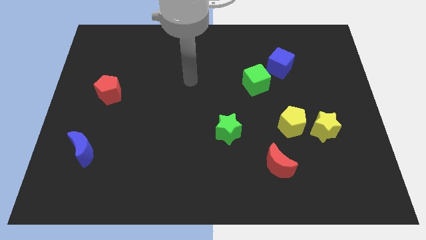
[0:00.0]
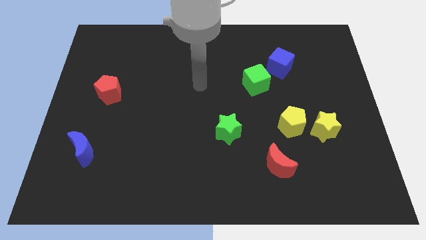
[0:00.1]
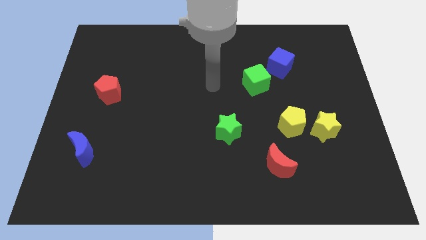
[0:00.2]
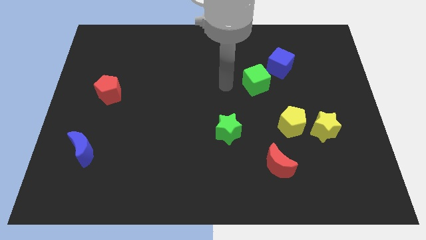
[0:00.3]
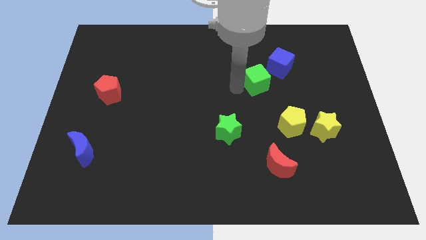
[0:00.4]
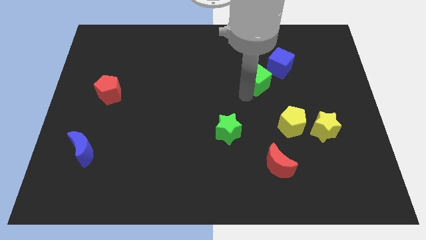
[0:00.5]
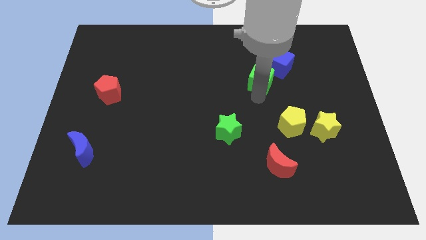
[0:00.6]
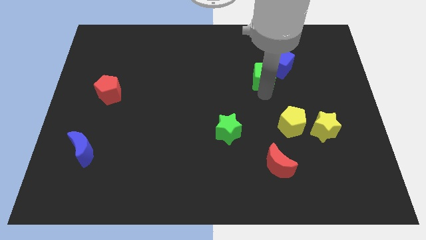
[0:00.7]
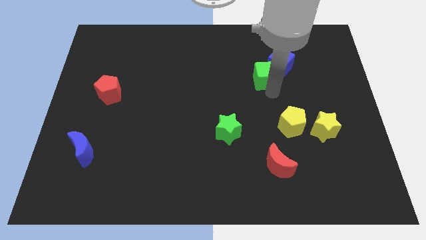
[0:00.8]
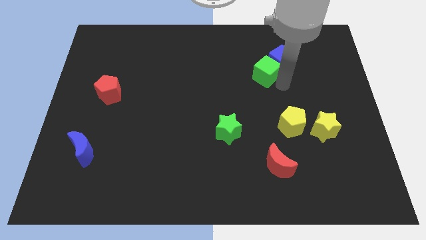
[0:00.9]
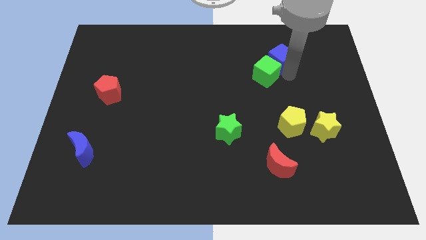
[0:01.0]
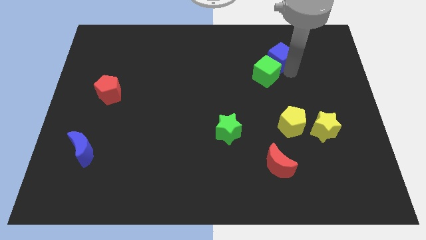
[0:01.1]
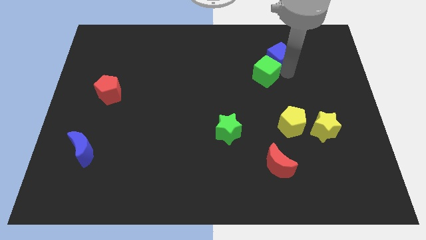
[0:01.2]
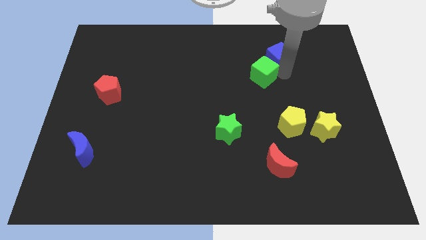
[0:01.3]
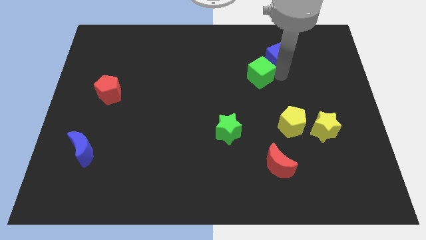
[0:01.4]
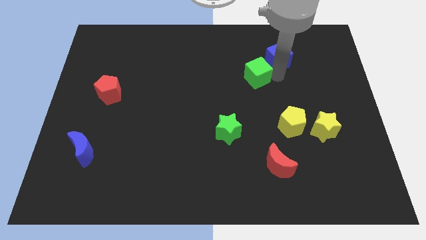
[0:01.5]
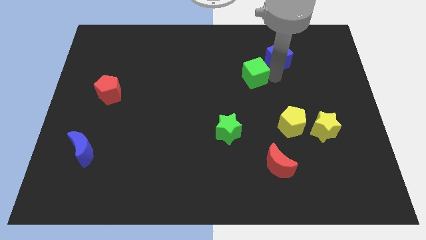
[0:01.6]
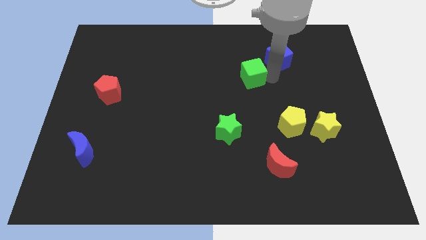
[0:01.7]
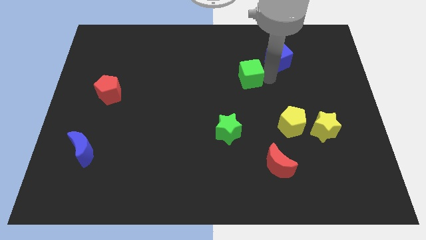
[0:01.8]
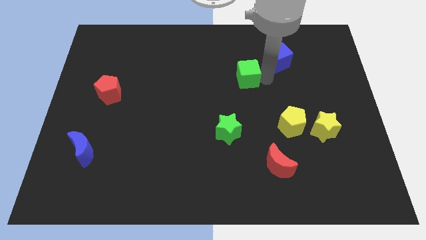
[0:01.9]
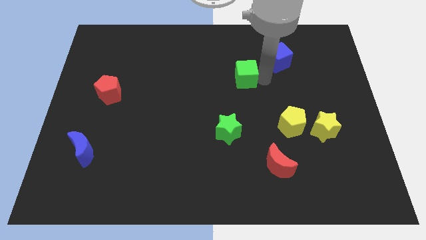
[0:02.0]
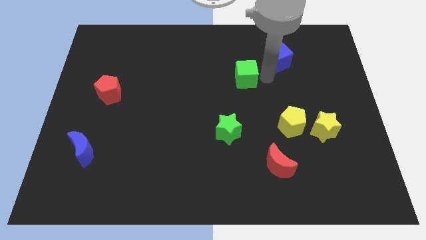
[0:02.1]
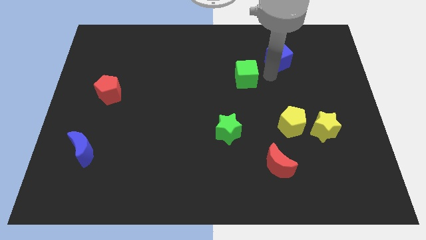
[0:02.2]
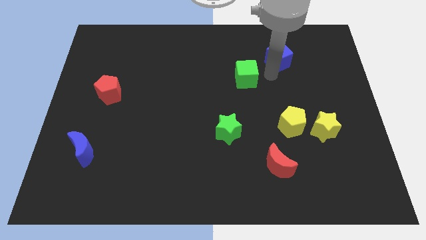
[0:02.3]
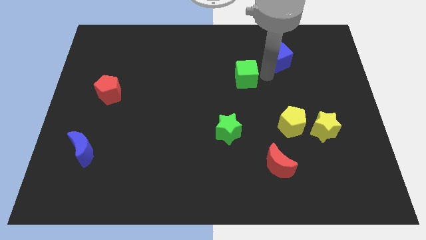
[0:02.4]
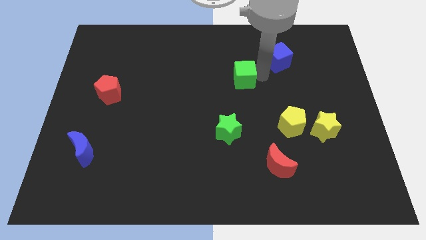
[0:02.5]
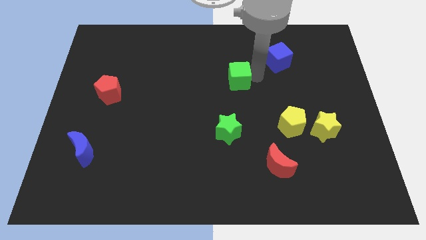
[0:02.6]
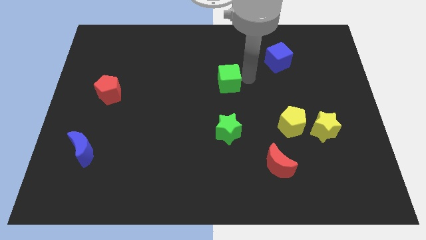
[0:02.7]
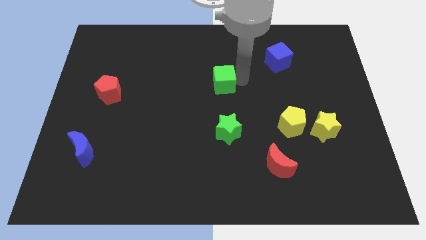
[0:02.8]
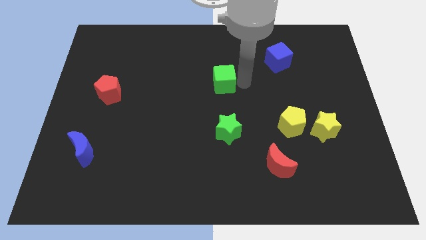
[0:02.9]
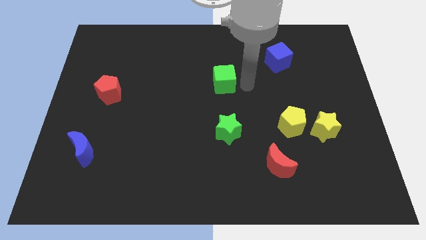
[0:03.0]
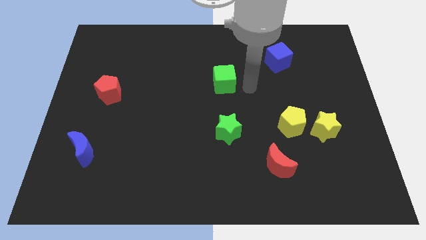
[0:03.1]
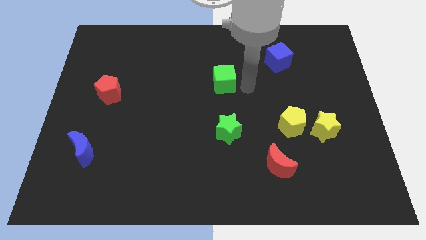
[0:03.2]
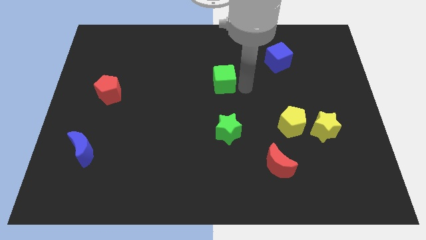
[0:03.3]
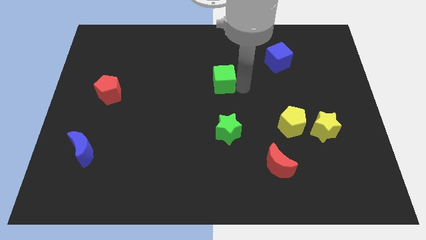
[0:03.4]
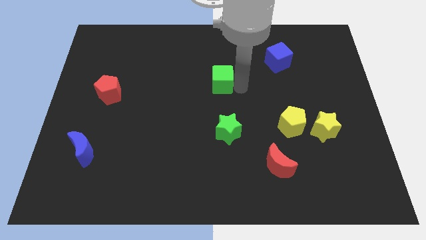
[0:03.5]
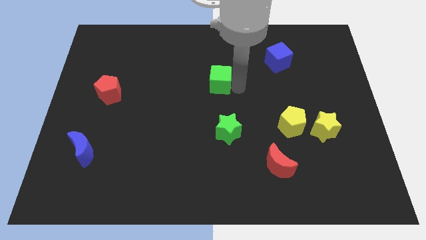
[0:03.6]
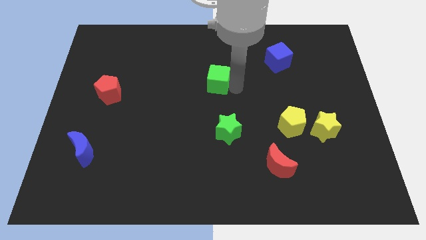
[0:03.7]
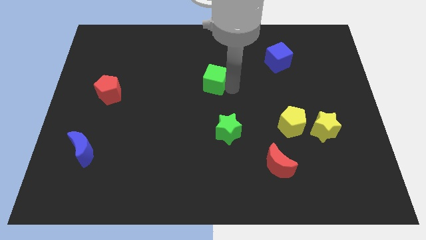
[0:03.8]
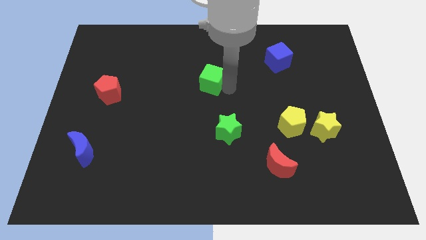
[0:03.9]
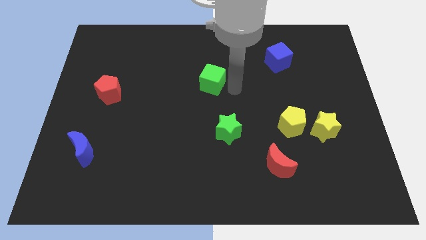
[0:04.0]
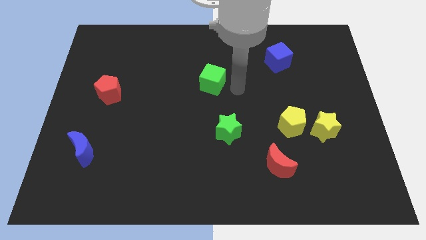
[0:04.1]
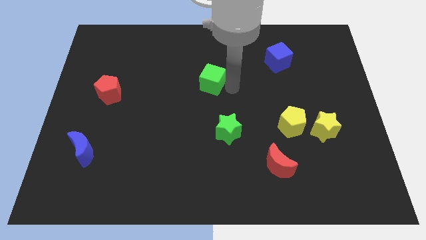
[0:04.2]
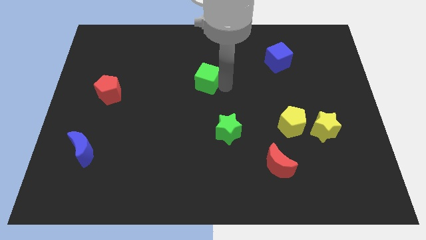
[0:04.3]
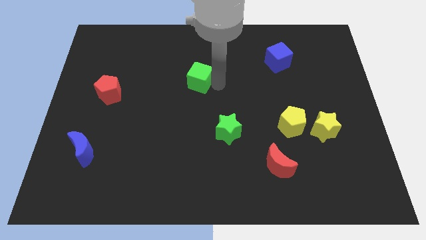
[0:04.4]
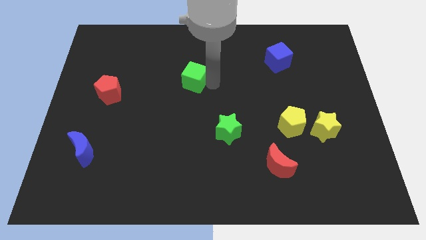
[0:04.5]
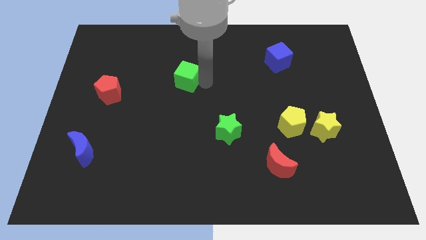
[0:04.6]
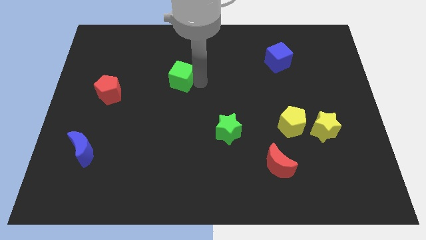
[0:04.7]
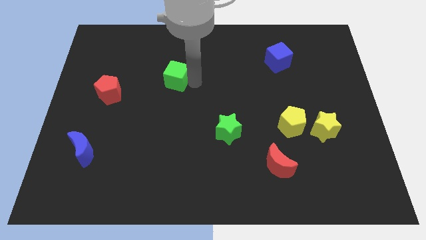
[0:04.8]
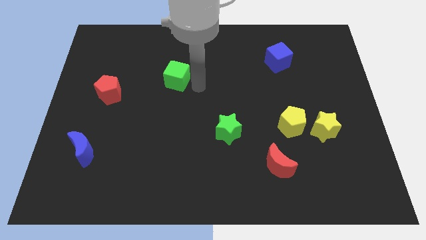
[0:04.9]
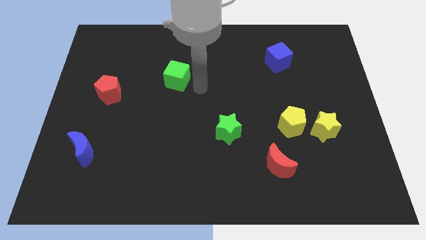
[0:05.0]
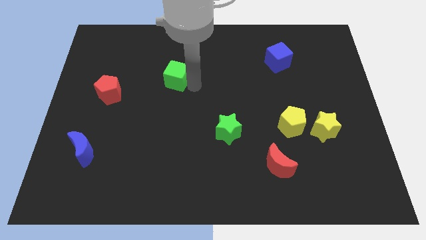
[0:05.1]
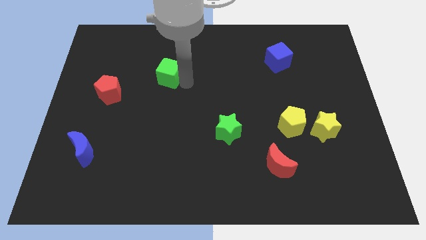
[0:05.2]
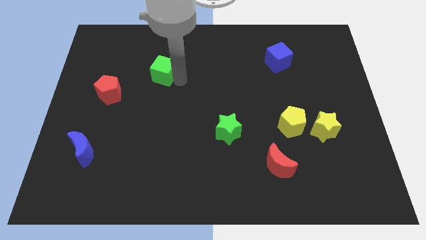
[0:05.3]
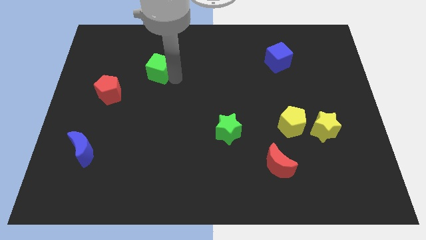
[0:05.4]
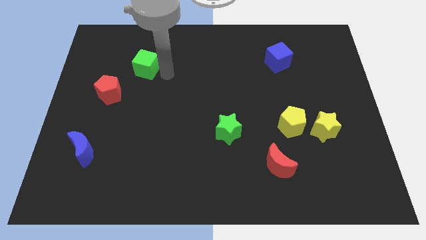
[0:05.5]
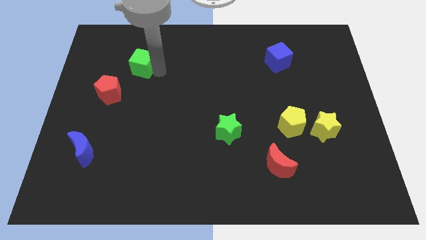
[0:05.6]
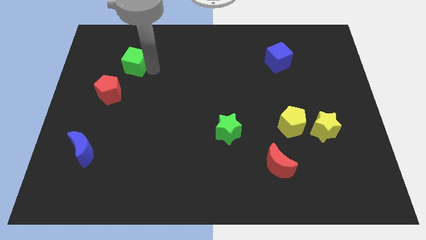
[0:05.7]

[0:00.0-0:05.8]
move the green cube to the top side of the red pentagon

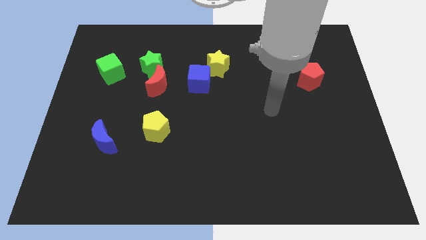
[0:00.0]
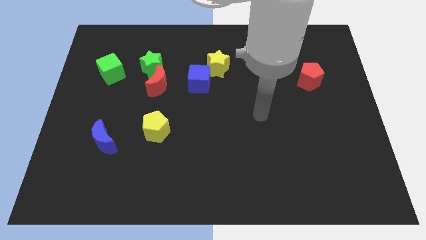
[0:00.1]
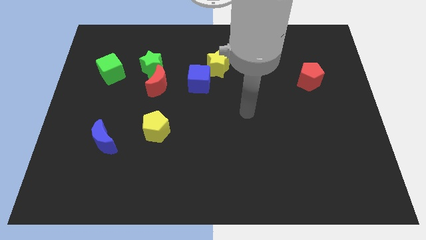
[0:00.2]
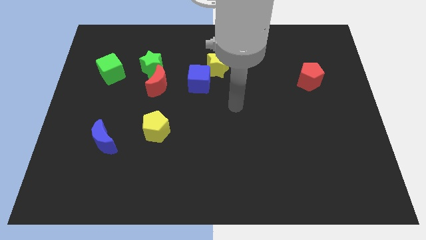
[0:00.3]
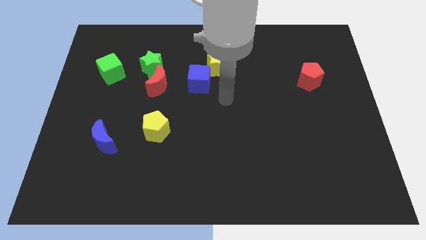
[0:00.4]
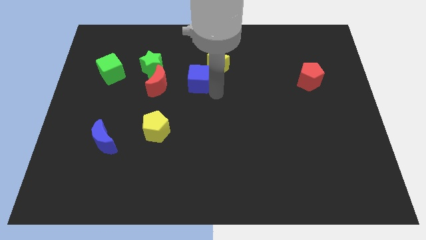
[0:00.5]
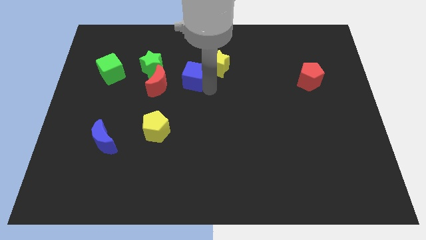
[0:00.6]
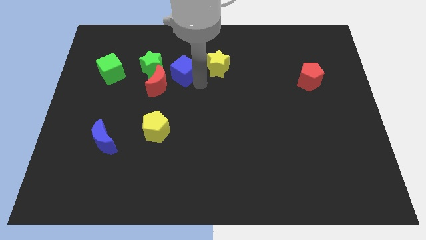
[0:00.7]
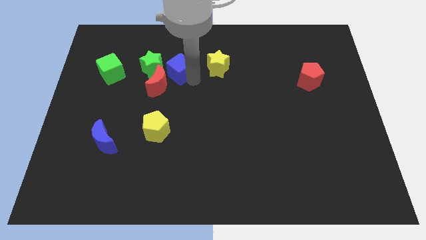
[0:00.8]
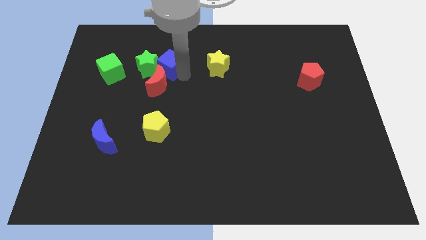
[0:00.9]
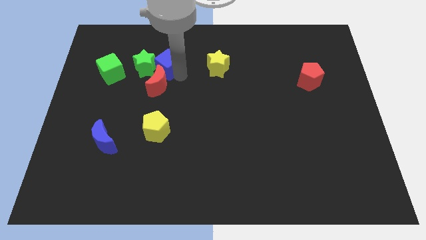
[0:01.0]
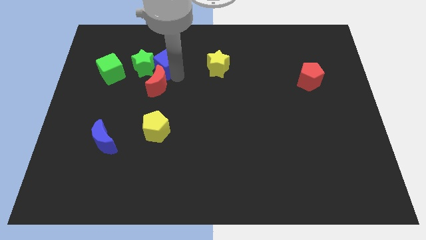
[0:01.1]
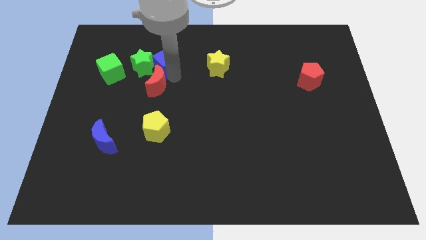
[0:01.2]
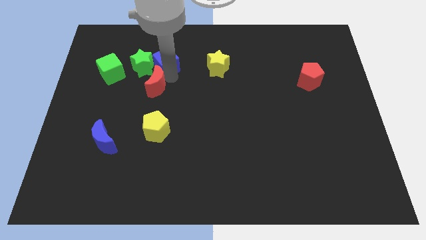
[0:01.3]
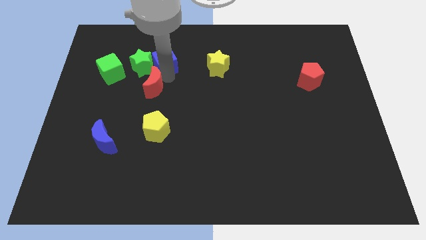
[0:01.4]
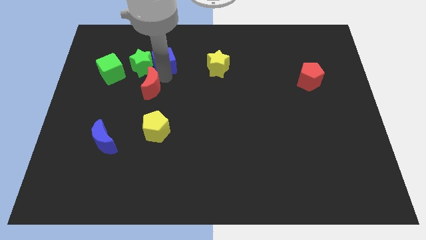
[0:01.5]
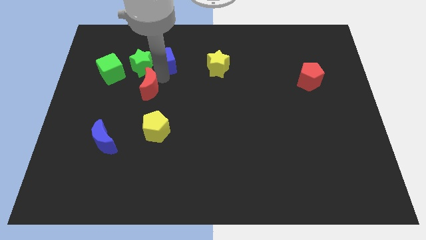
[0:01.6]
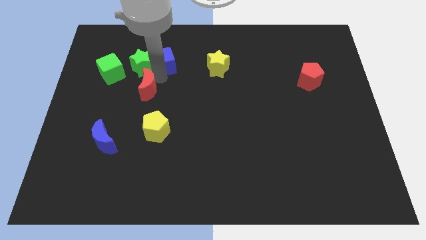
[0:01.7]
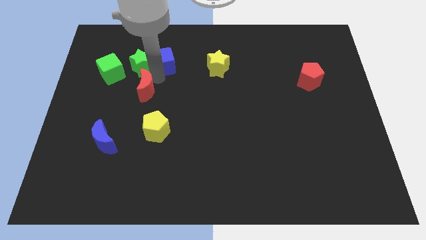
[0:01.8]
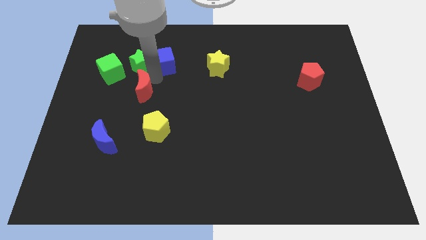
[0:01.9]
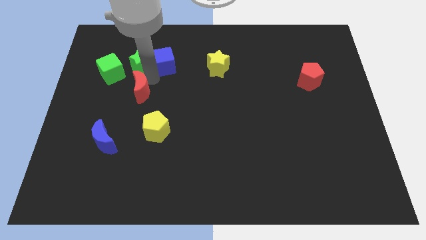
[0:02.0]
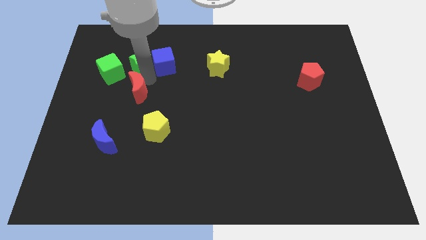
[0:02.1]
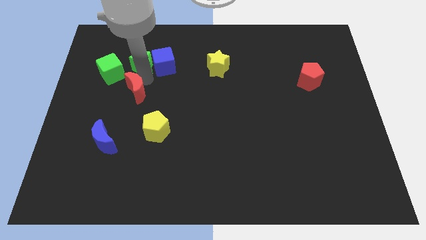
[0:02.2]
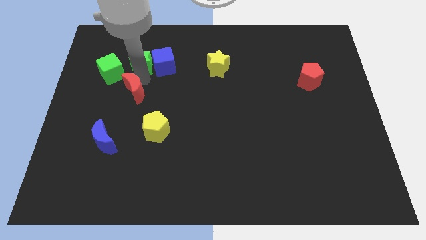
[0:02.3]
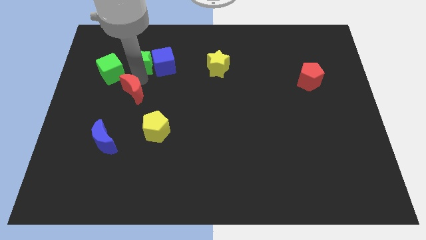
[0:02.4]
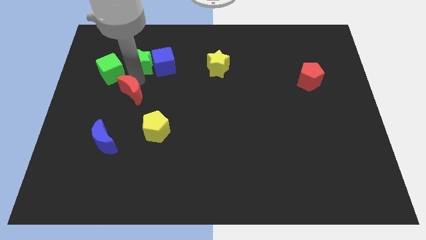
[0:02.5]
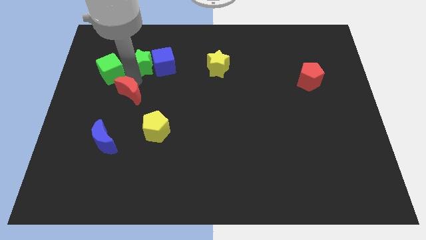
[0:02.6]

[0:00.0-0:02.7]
put the red moon above the blue moon
